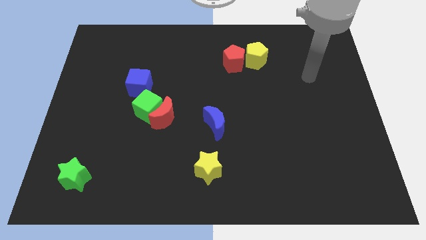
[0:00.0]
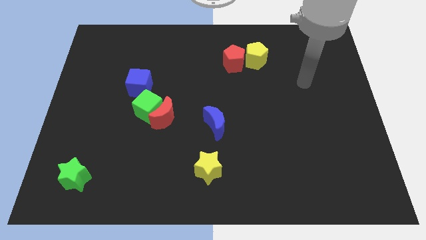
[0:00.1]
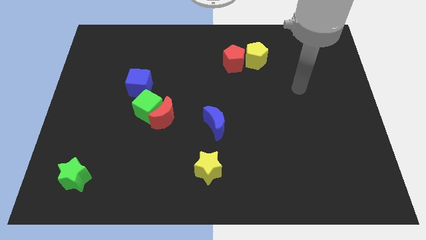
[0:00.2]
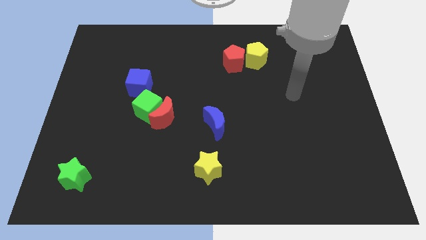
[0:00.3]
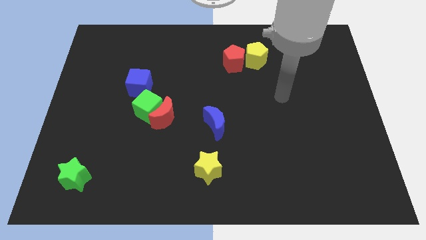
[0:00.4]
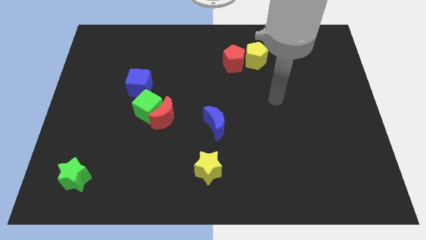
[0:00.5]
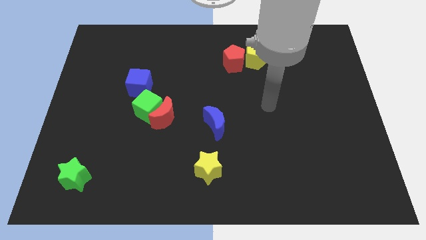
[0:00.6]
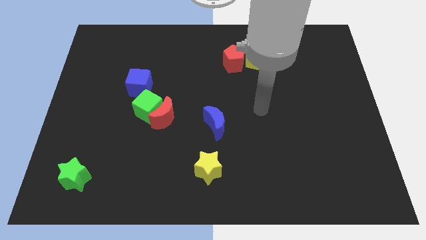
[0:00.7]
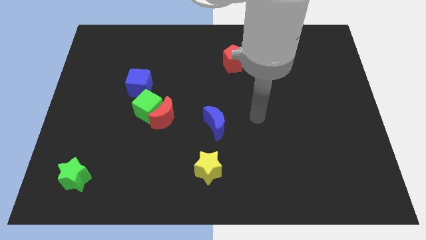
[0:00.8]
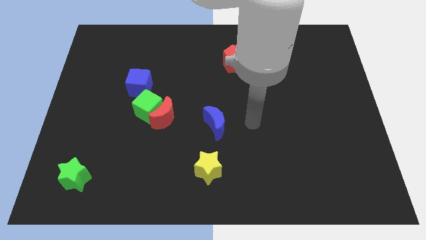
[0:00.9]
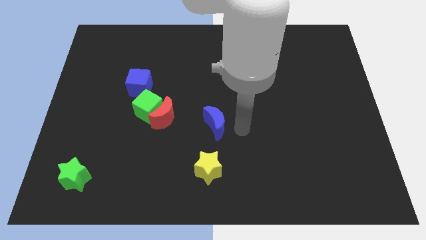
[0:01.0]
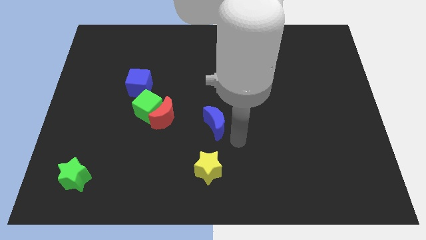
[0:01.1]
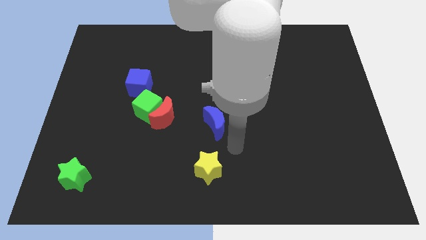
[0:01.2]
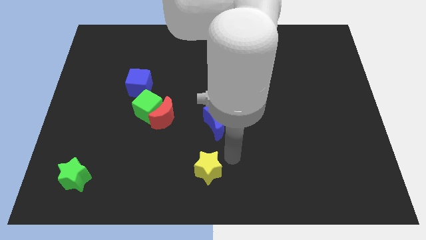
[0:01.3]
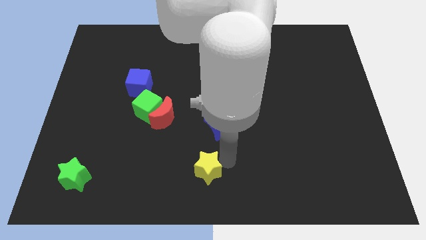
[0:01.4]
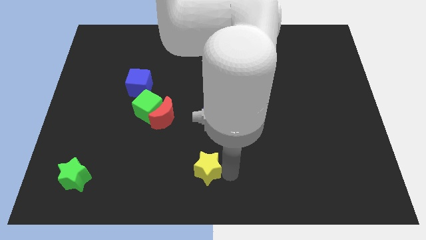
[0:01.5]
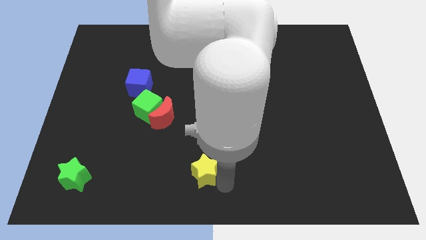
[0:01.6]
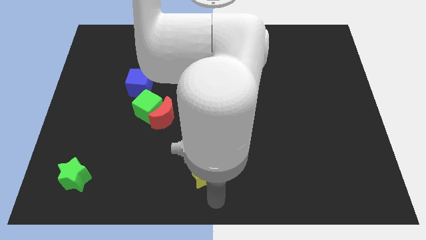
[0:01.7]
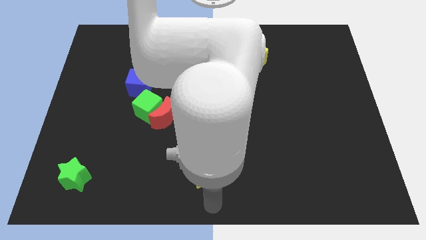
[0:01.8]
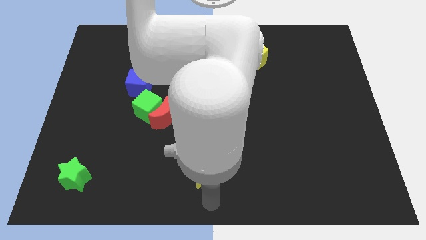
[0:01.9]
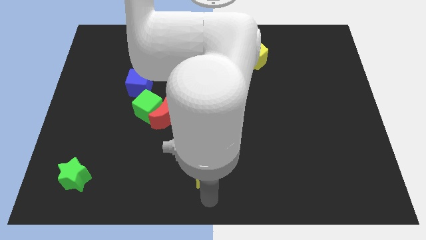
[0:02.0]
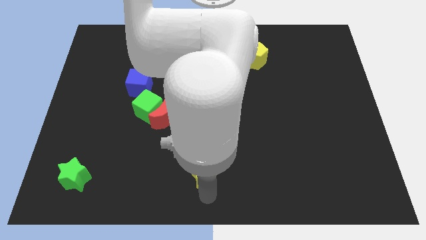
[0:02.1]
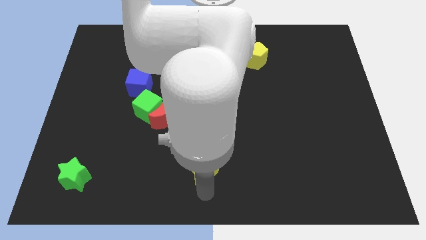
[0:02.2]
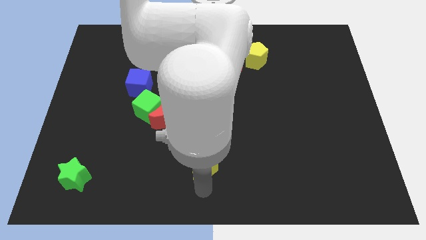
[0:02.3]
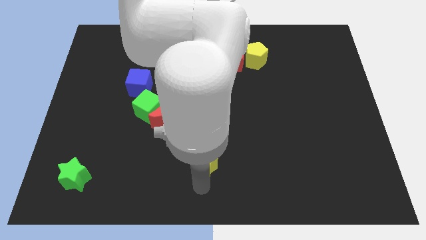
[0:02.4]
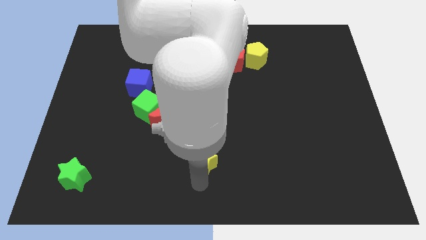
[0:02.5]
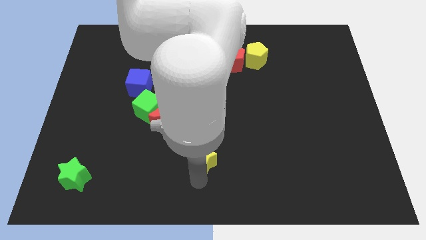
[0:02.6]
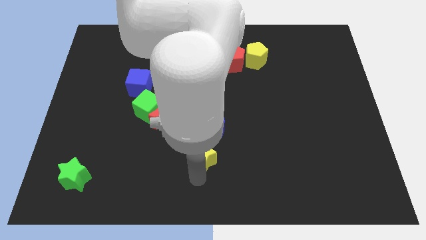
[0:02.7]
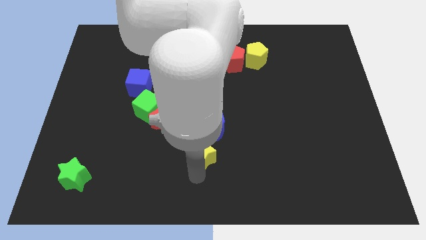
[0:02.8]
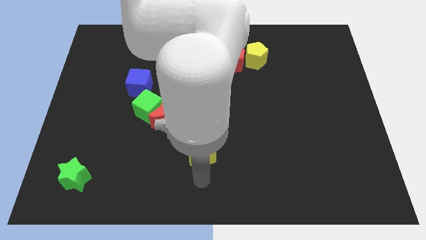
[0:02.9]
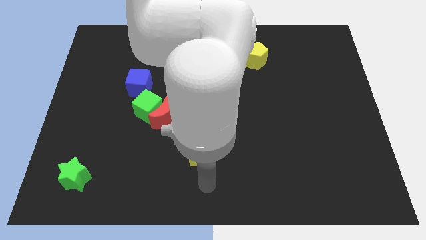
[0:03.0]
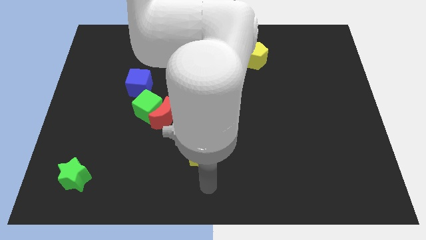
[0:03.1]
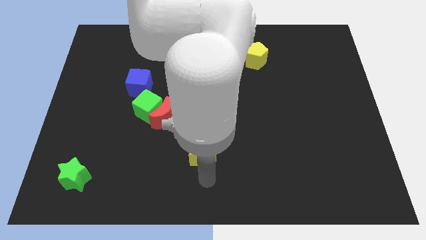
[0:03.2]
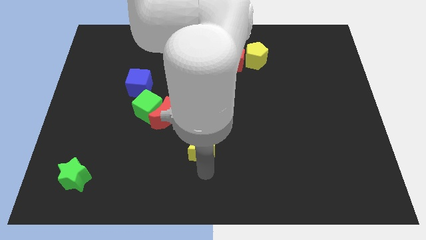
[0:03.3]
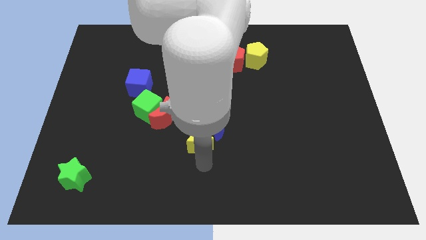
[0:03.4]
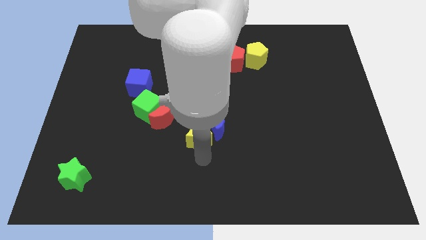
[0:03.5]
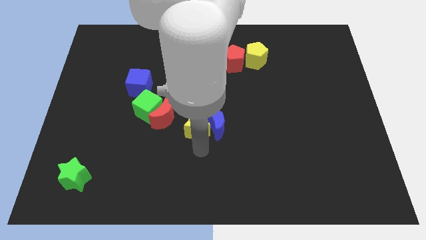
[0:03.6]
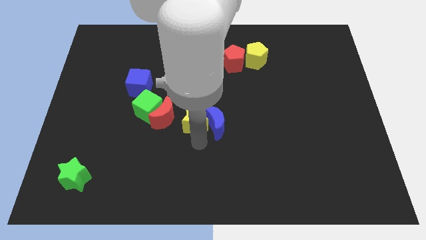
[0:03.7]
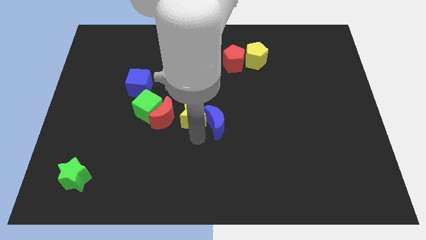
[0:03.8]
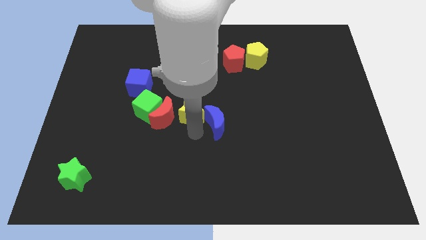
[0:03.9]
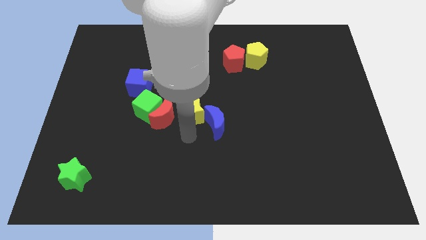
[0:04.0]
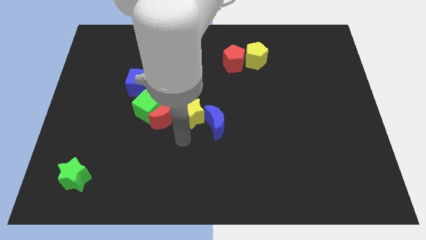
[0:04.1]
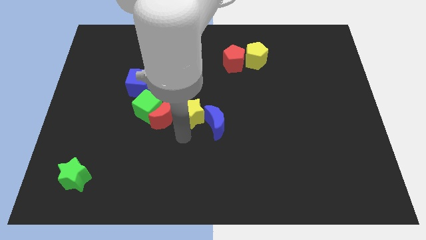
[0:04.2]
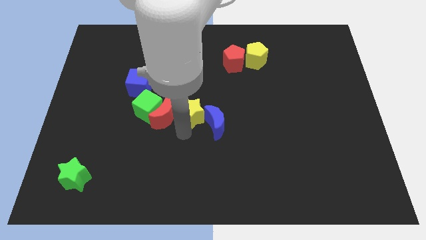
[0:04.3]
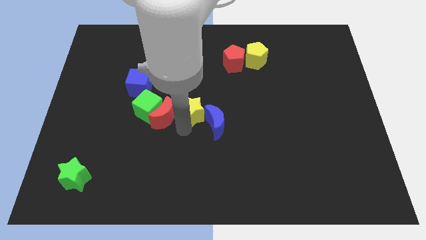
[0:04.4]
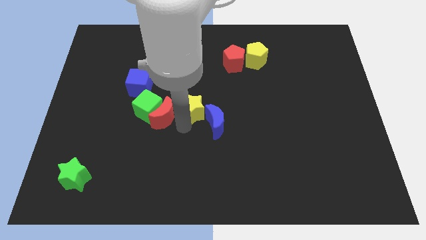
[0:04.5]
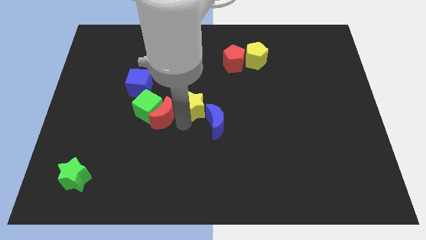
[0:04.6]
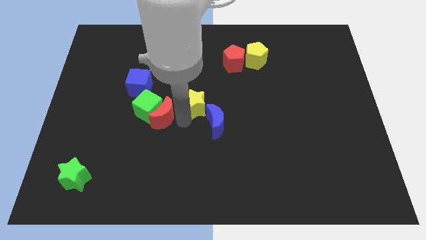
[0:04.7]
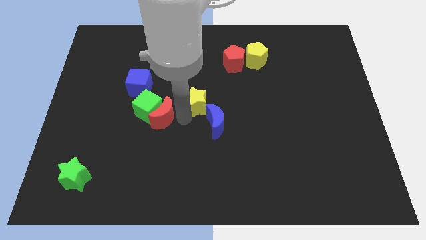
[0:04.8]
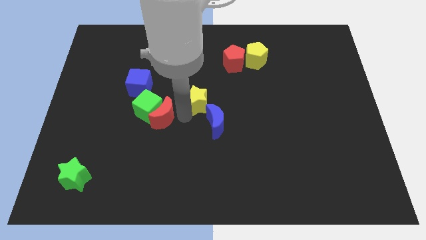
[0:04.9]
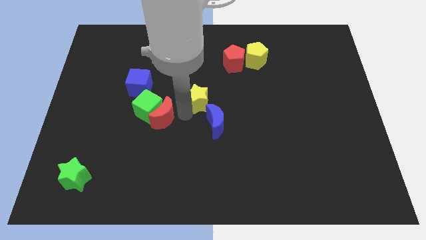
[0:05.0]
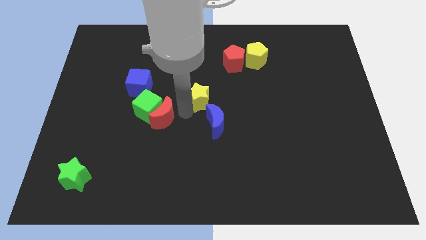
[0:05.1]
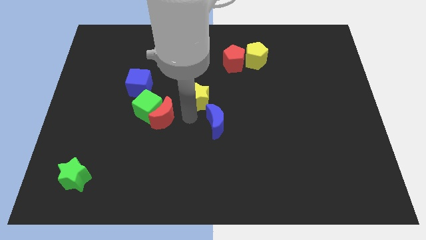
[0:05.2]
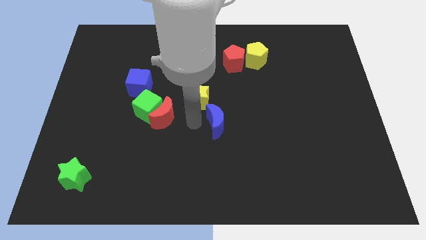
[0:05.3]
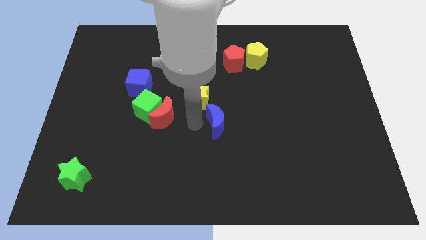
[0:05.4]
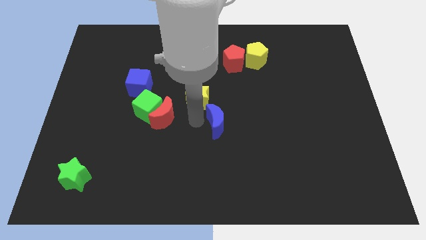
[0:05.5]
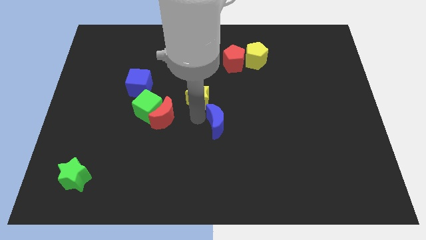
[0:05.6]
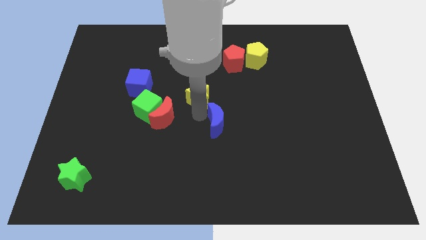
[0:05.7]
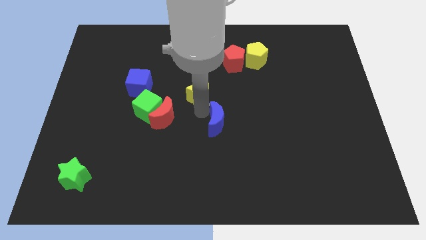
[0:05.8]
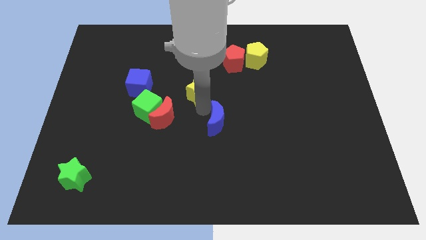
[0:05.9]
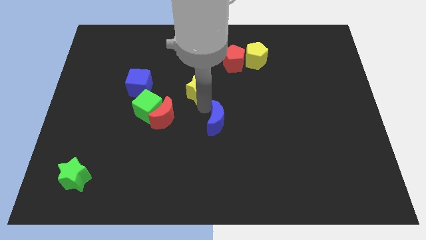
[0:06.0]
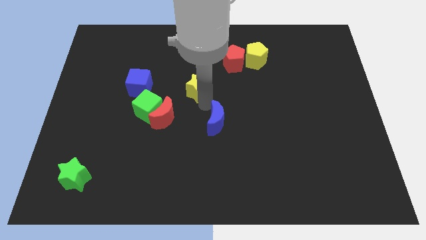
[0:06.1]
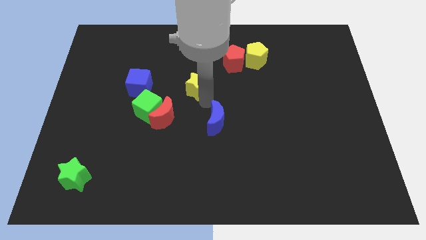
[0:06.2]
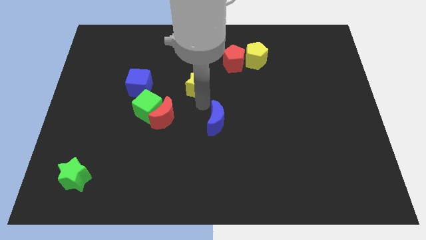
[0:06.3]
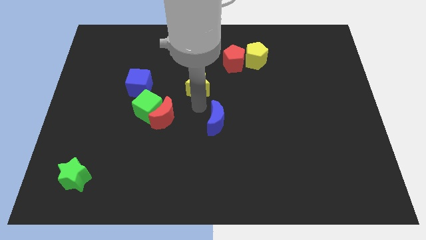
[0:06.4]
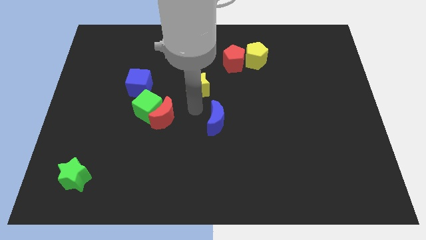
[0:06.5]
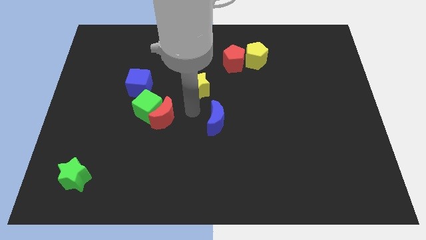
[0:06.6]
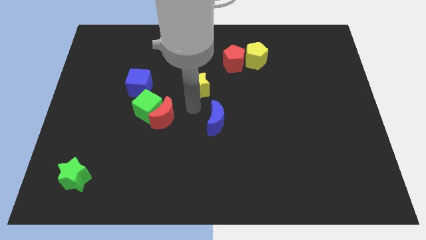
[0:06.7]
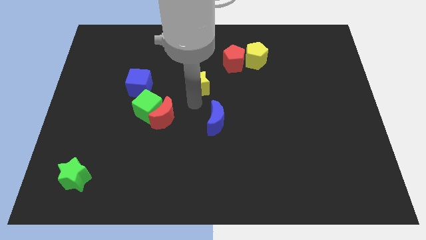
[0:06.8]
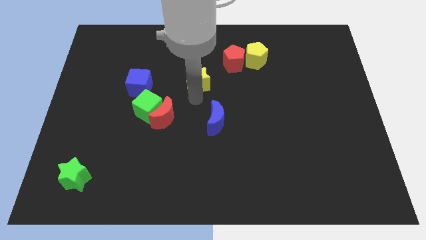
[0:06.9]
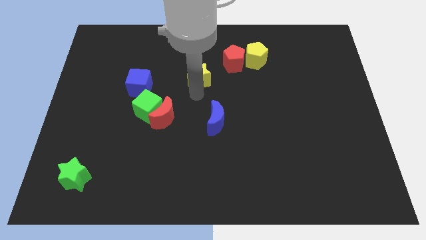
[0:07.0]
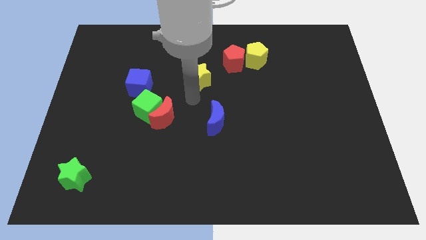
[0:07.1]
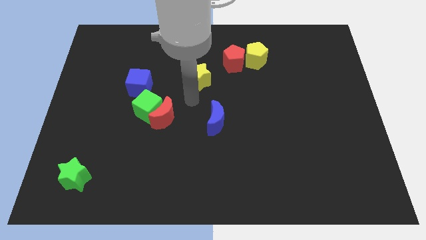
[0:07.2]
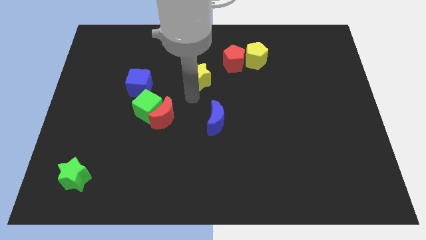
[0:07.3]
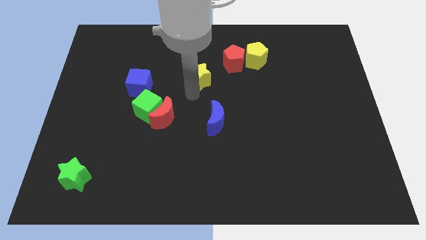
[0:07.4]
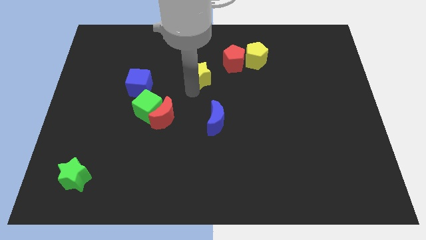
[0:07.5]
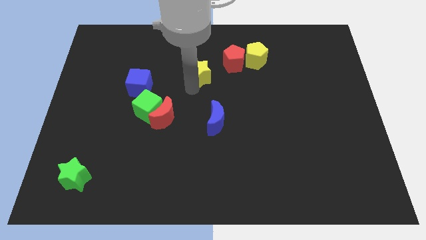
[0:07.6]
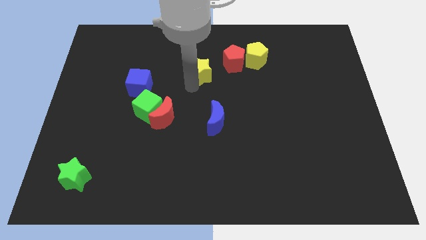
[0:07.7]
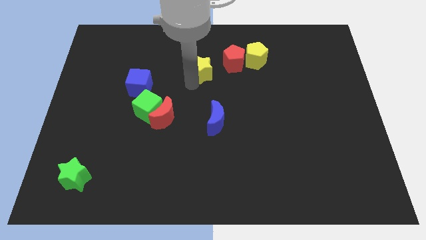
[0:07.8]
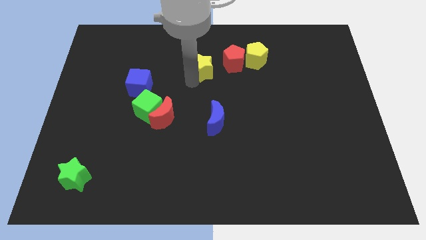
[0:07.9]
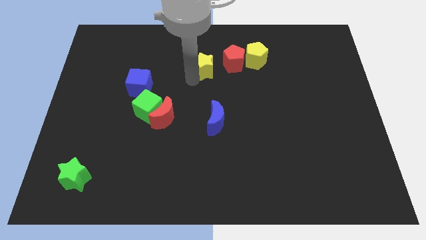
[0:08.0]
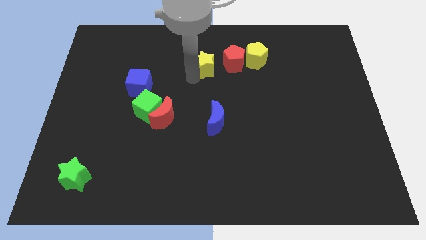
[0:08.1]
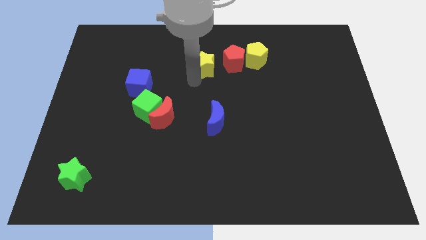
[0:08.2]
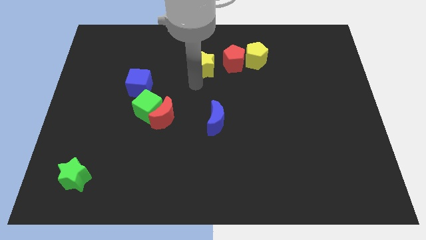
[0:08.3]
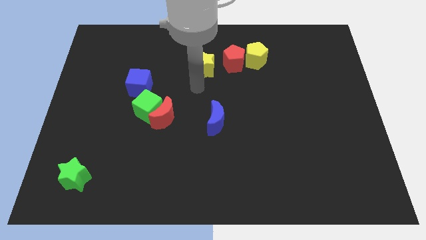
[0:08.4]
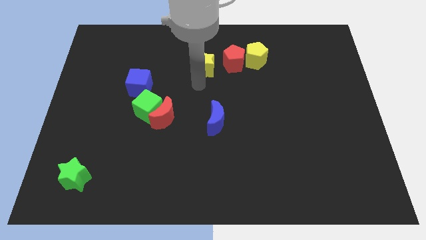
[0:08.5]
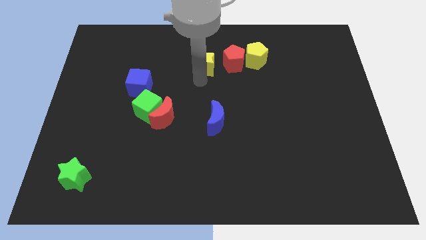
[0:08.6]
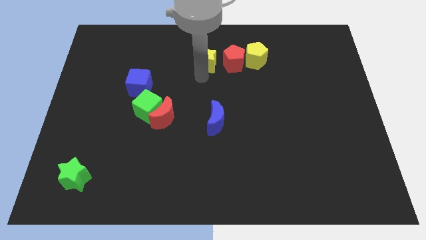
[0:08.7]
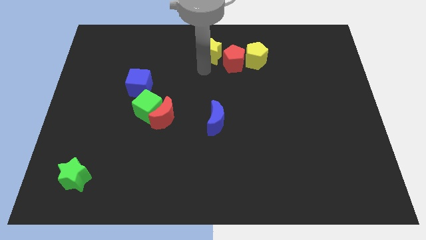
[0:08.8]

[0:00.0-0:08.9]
move the yellow star to the towards your base
